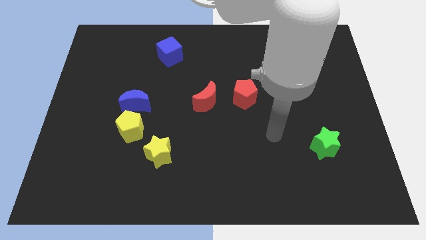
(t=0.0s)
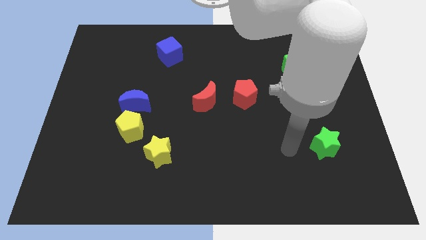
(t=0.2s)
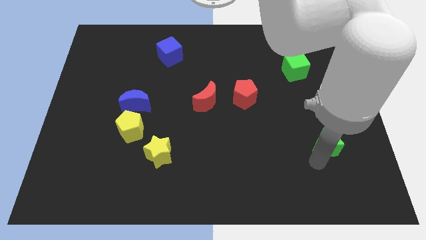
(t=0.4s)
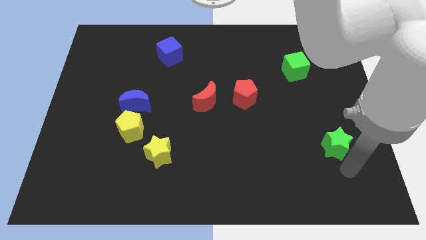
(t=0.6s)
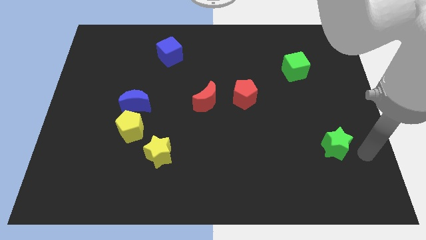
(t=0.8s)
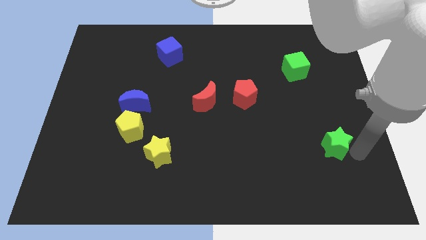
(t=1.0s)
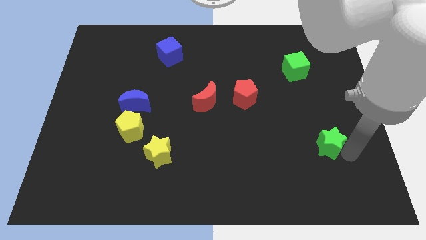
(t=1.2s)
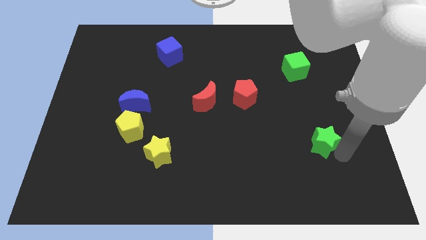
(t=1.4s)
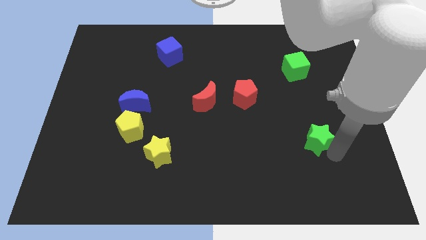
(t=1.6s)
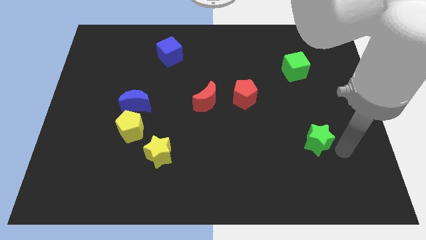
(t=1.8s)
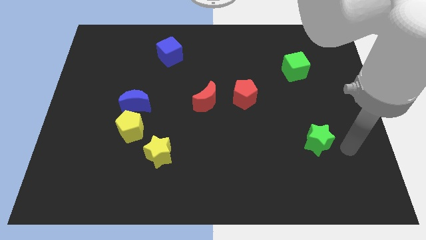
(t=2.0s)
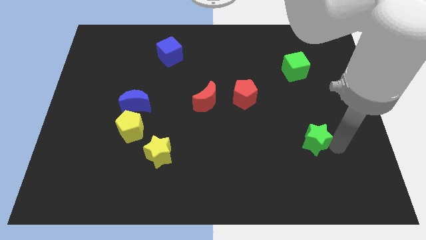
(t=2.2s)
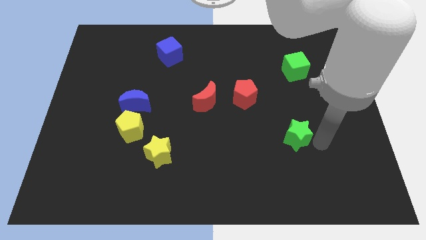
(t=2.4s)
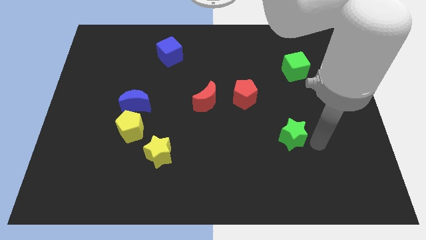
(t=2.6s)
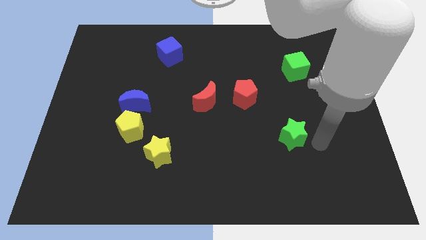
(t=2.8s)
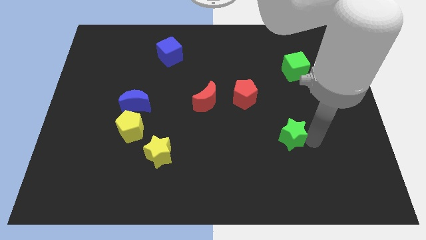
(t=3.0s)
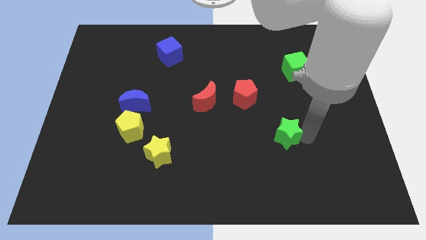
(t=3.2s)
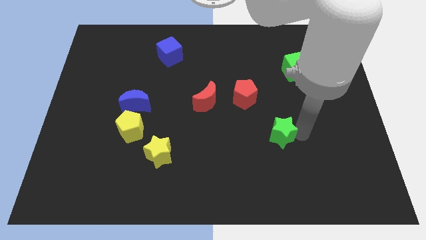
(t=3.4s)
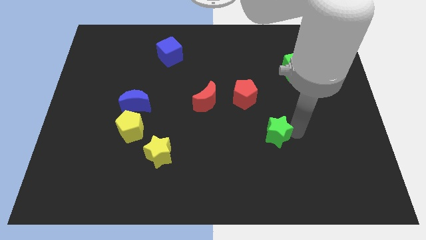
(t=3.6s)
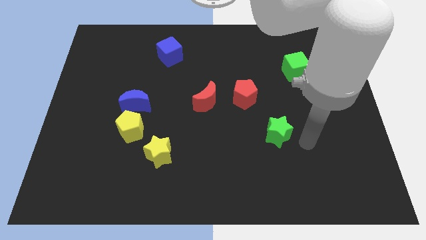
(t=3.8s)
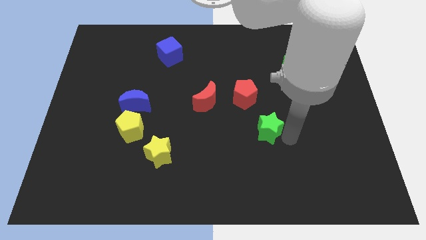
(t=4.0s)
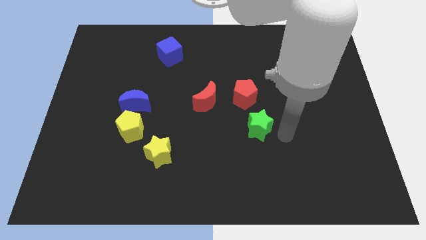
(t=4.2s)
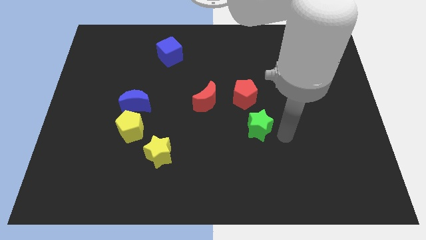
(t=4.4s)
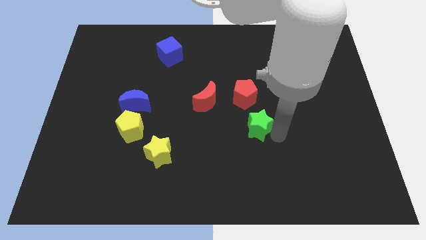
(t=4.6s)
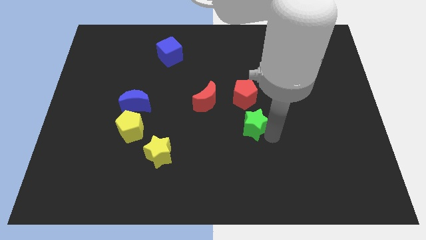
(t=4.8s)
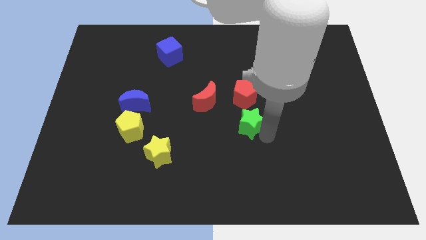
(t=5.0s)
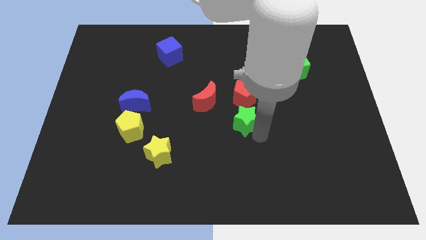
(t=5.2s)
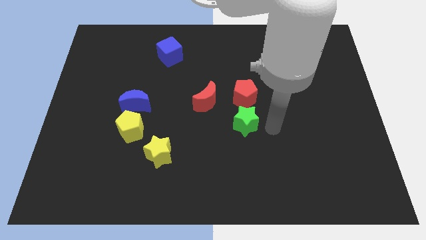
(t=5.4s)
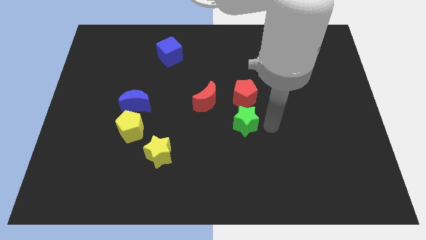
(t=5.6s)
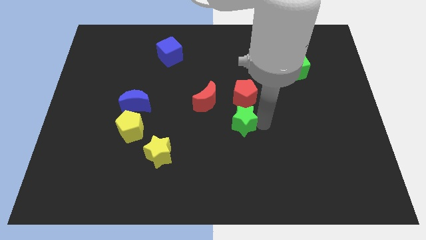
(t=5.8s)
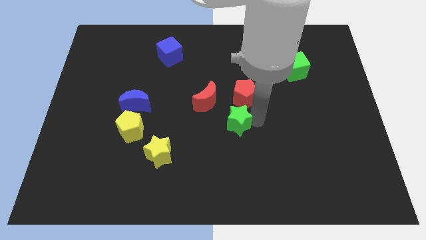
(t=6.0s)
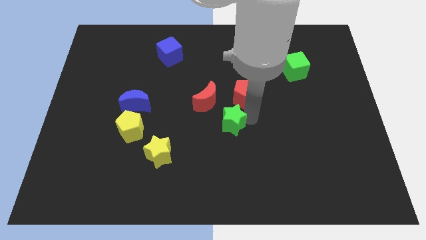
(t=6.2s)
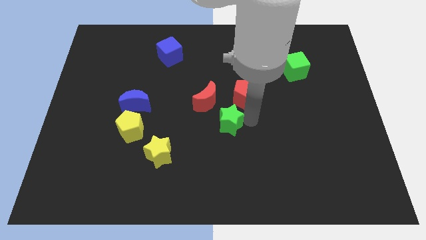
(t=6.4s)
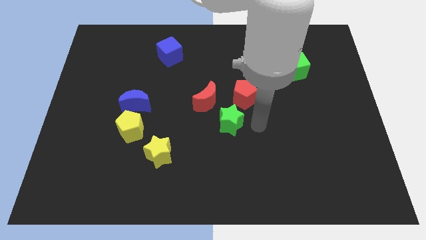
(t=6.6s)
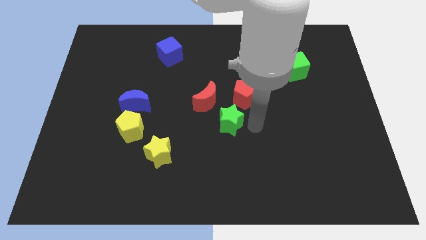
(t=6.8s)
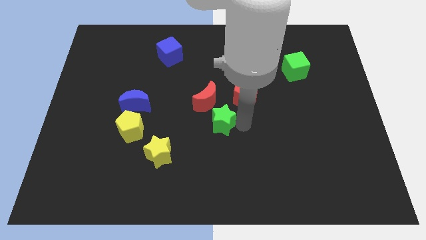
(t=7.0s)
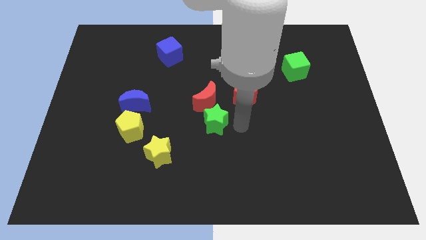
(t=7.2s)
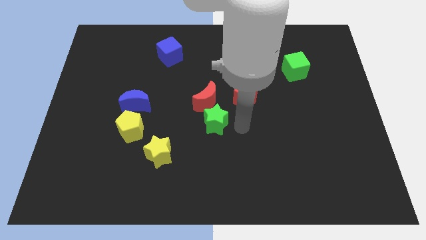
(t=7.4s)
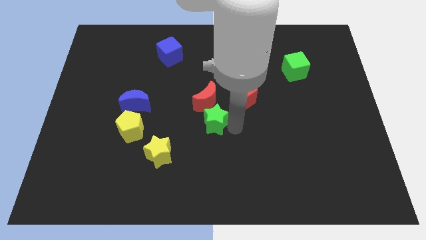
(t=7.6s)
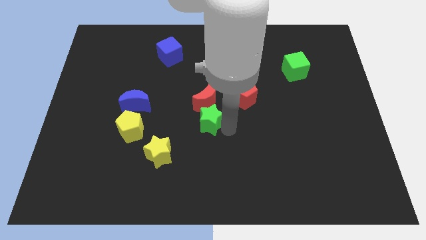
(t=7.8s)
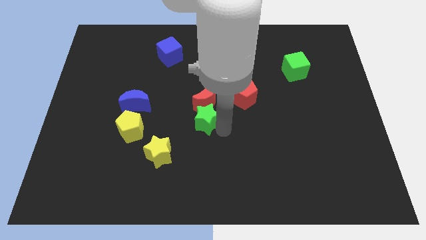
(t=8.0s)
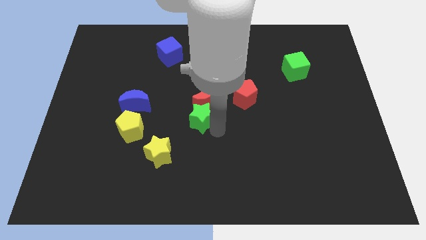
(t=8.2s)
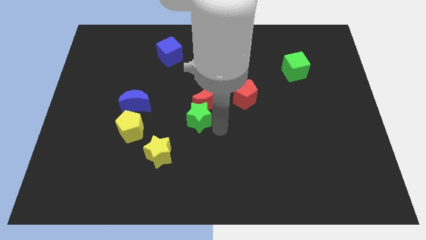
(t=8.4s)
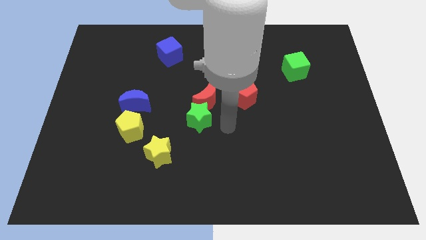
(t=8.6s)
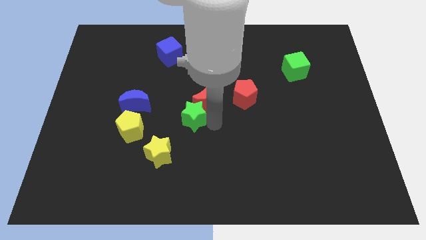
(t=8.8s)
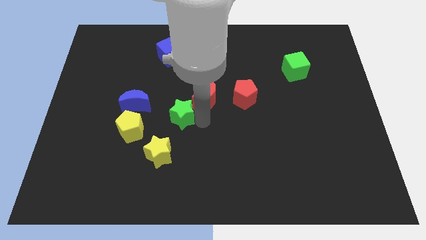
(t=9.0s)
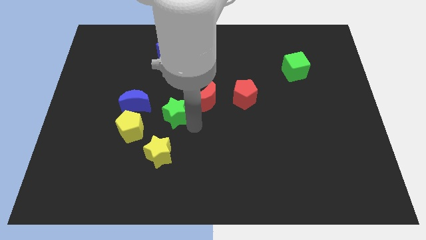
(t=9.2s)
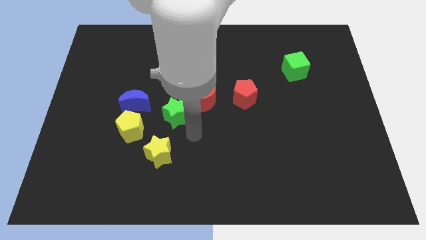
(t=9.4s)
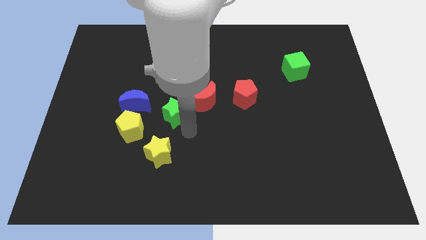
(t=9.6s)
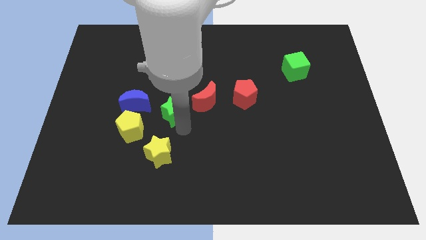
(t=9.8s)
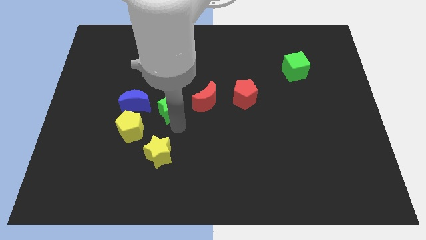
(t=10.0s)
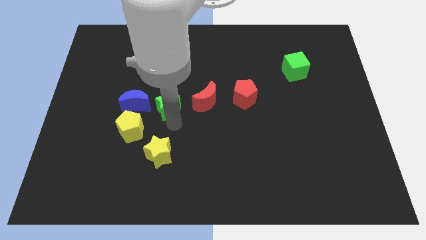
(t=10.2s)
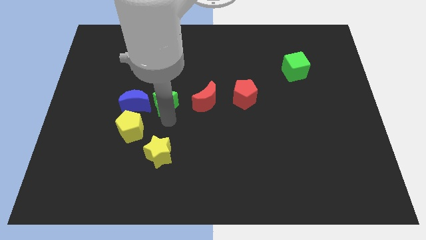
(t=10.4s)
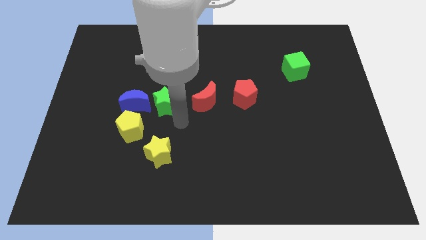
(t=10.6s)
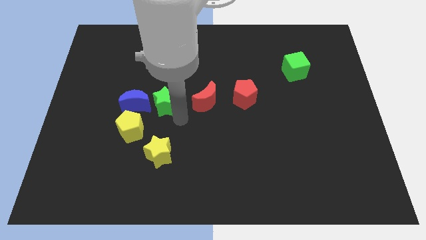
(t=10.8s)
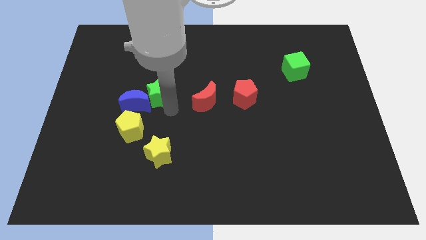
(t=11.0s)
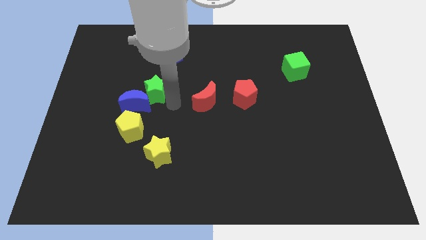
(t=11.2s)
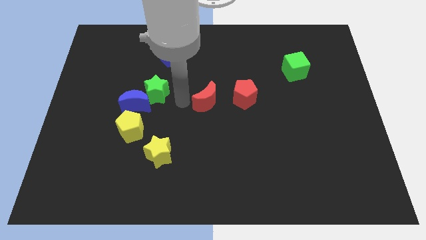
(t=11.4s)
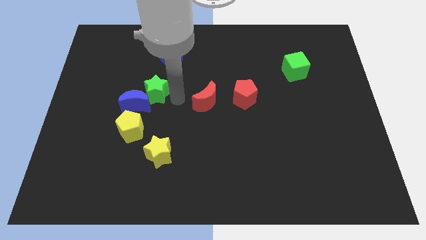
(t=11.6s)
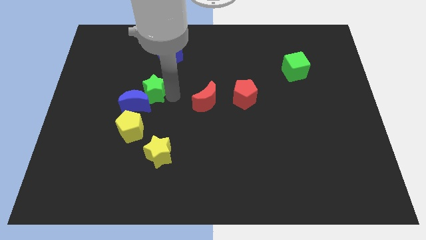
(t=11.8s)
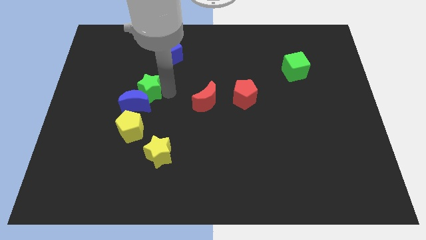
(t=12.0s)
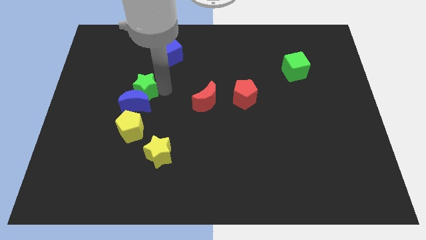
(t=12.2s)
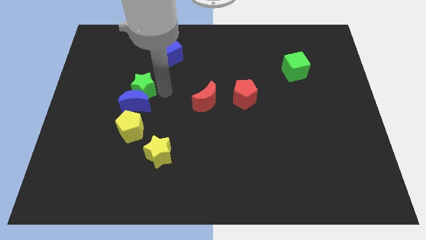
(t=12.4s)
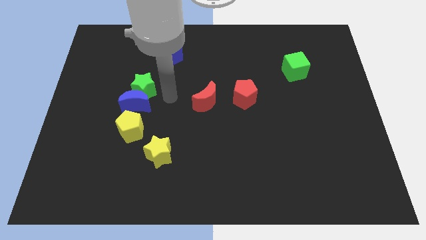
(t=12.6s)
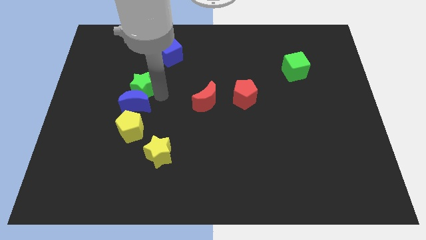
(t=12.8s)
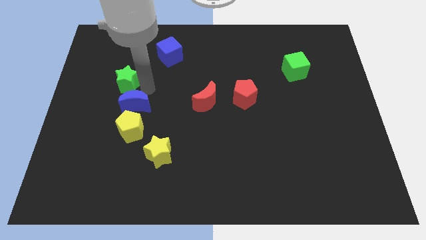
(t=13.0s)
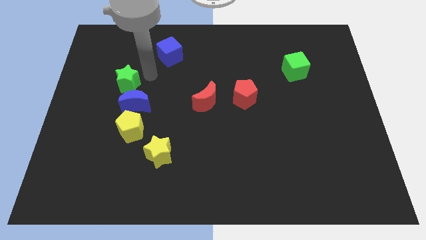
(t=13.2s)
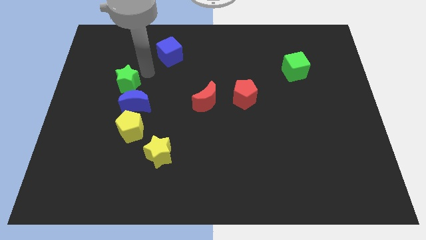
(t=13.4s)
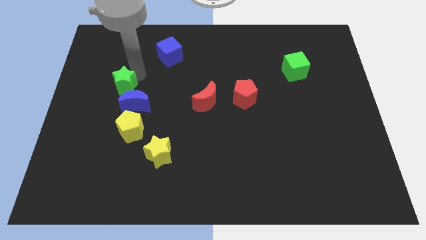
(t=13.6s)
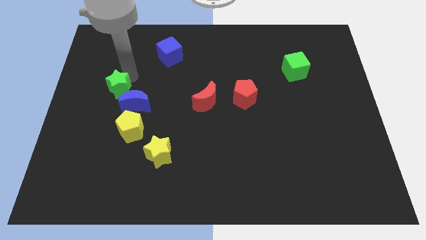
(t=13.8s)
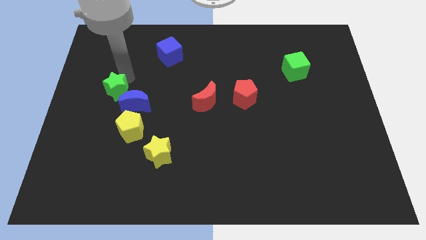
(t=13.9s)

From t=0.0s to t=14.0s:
put the green star to the left side of the blue moon
